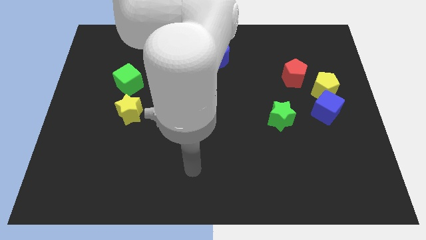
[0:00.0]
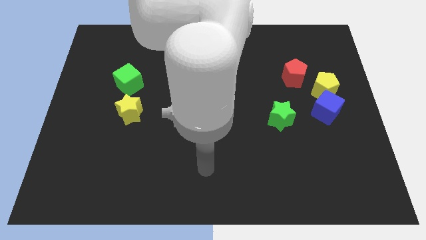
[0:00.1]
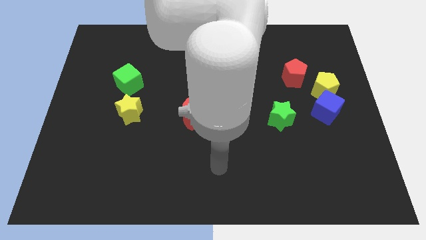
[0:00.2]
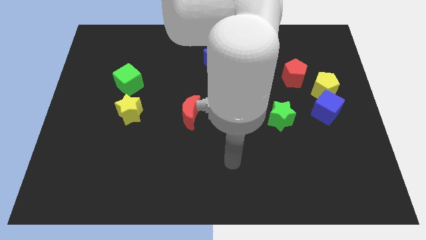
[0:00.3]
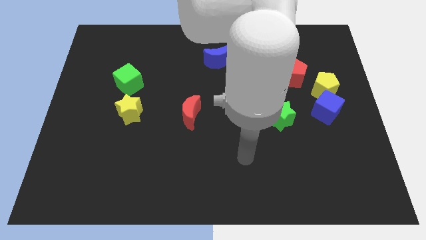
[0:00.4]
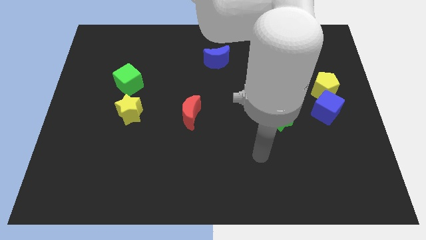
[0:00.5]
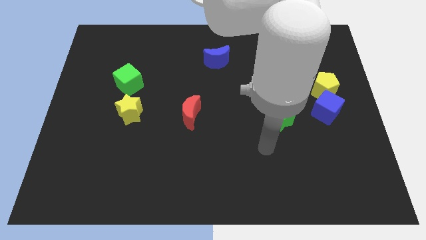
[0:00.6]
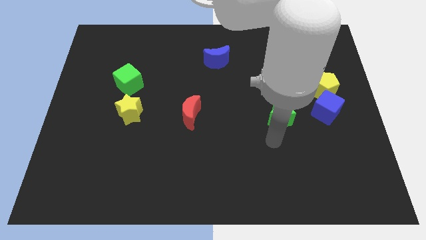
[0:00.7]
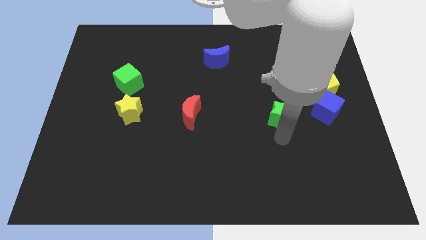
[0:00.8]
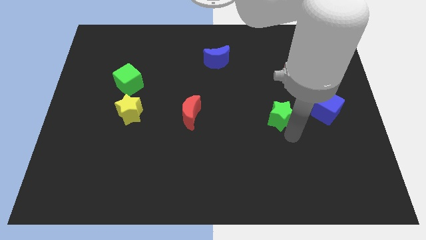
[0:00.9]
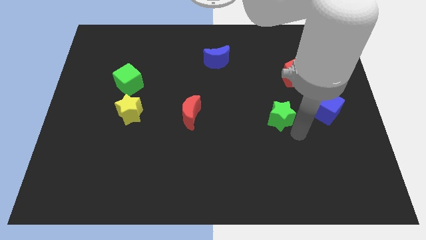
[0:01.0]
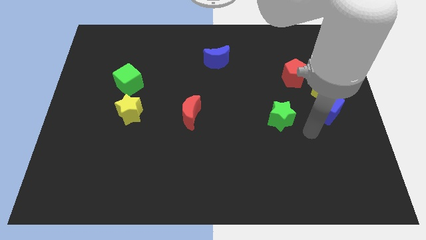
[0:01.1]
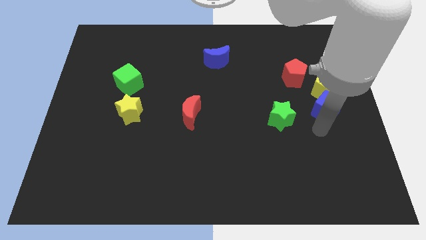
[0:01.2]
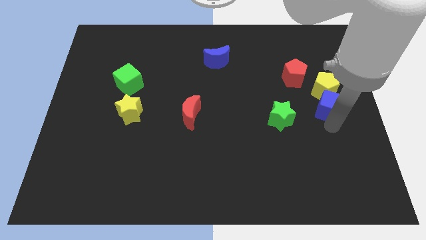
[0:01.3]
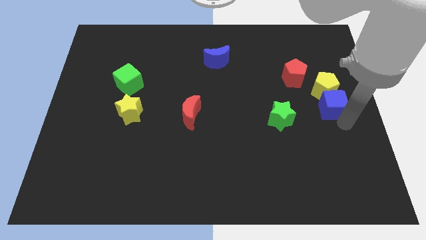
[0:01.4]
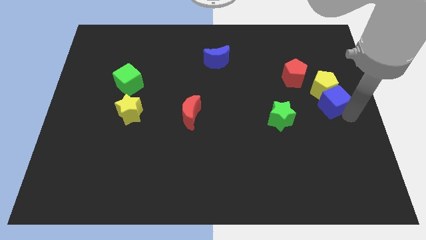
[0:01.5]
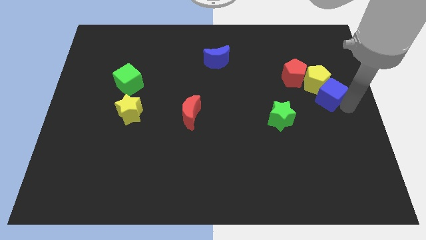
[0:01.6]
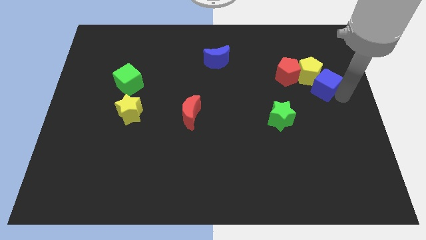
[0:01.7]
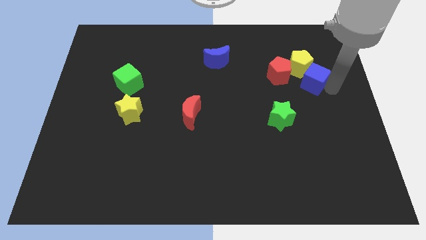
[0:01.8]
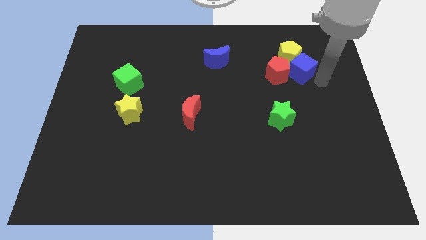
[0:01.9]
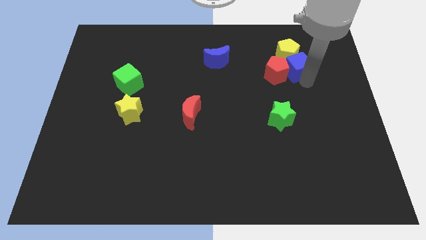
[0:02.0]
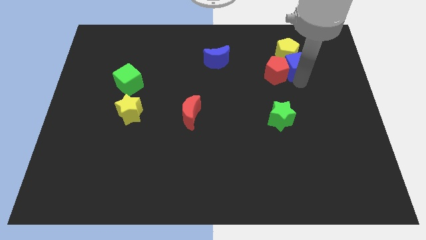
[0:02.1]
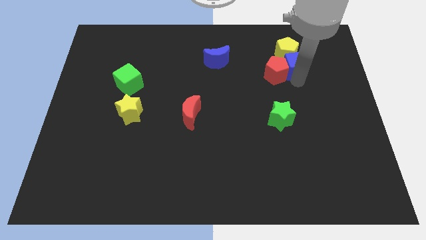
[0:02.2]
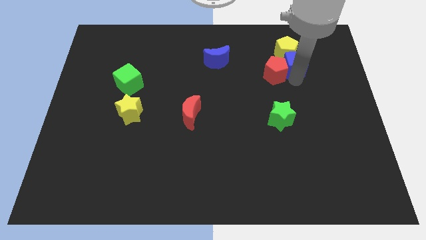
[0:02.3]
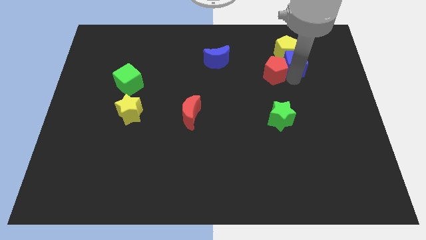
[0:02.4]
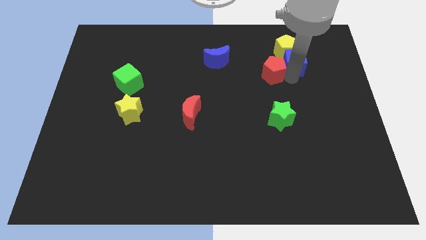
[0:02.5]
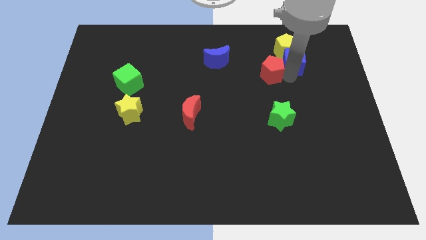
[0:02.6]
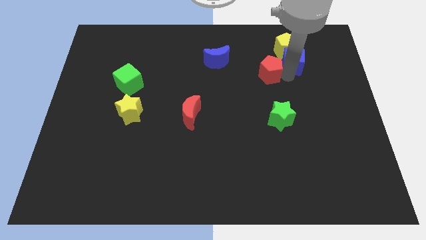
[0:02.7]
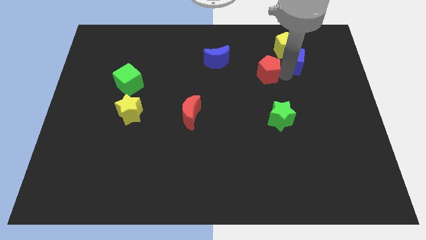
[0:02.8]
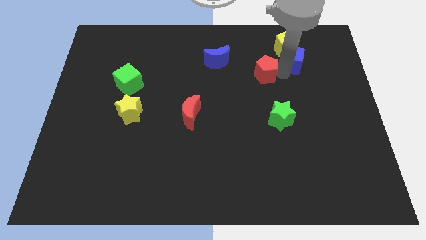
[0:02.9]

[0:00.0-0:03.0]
slightly push the red pentagon to the left

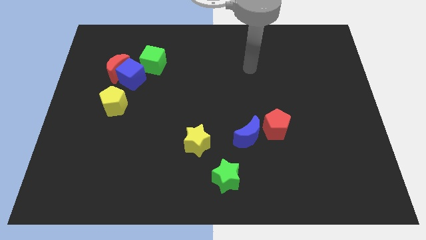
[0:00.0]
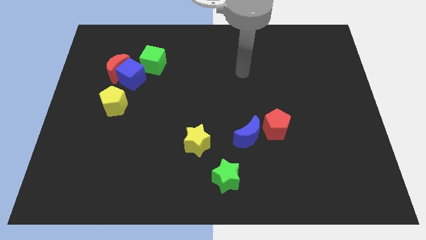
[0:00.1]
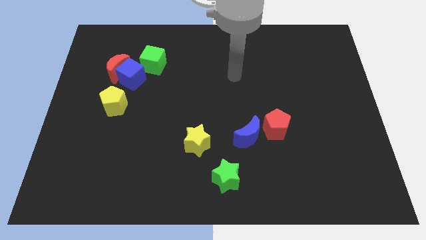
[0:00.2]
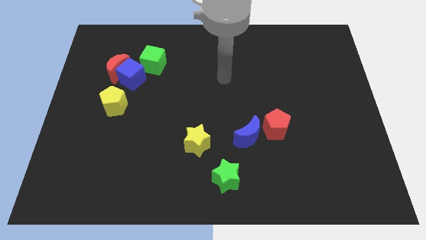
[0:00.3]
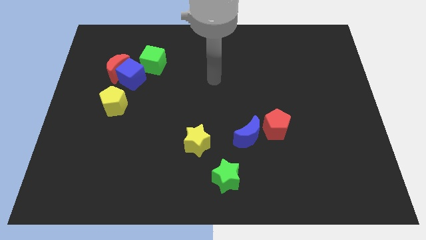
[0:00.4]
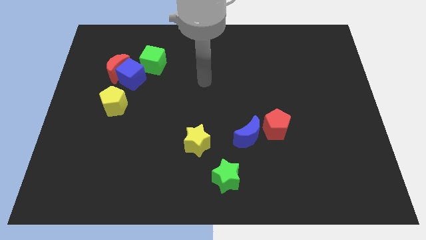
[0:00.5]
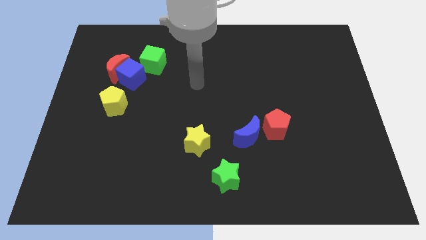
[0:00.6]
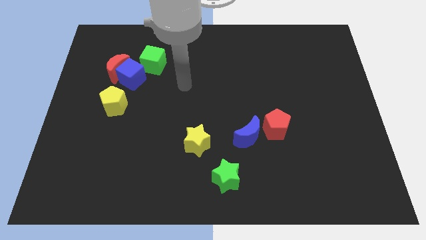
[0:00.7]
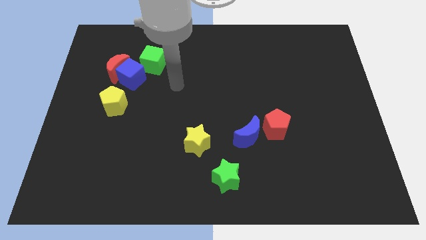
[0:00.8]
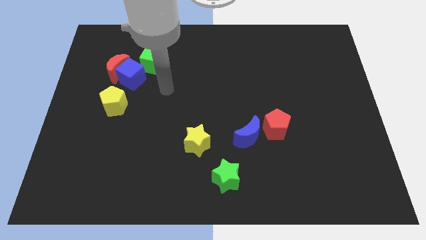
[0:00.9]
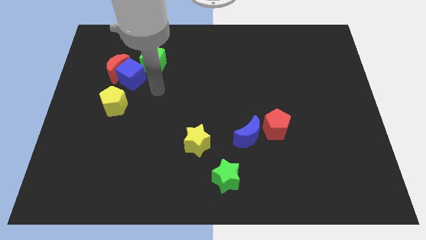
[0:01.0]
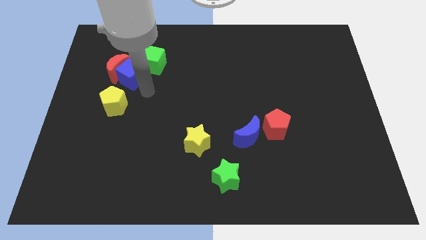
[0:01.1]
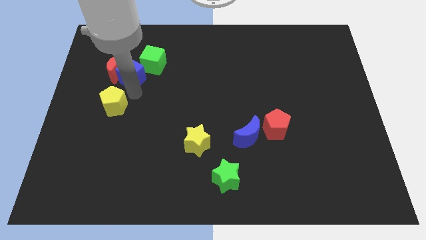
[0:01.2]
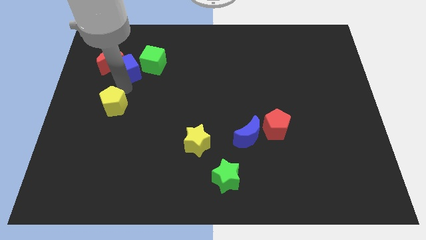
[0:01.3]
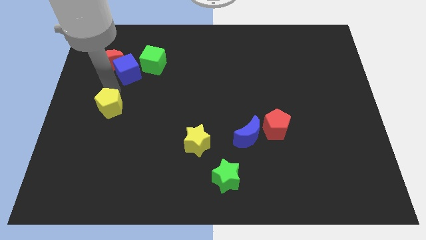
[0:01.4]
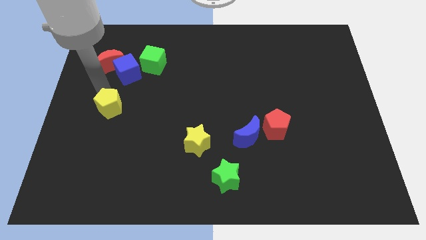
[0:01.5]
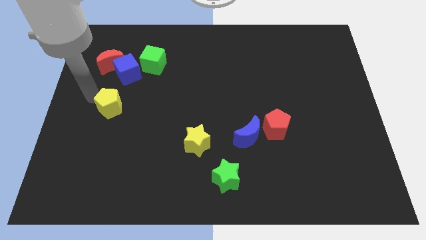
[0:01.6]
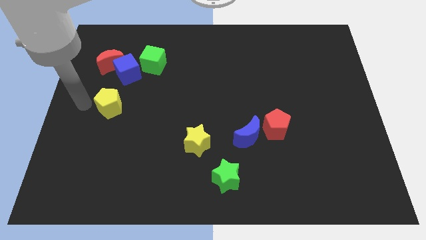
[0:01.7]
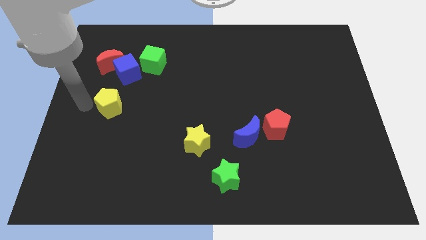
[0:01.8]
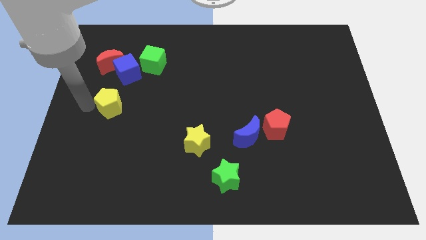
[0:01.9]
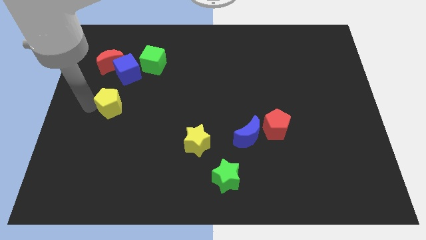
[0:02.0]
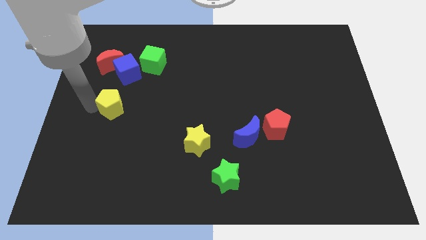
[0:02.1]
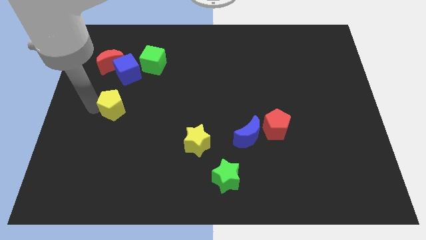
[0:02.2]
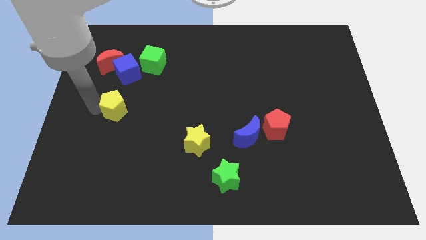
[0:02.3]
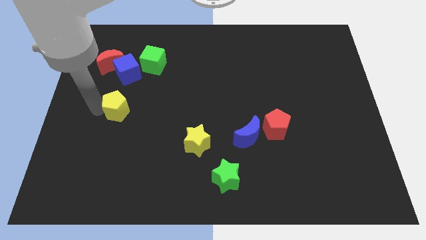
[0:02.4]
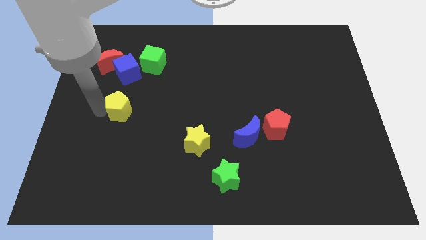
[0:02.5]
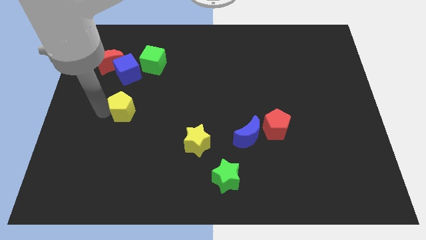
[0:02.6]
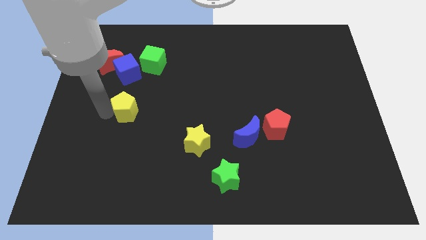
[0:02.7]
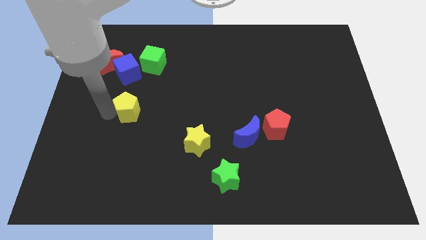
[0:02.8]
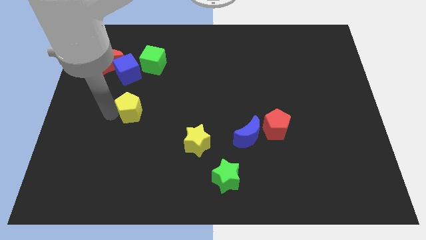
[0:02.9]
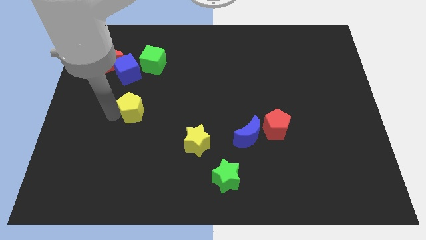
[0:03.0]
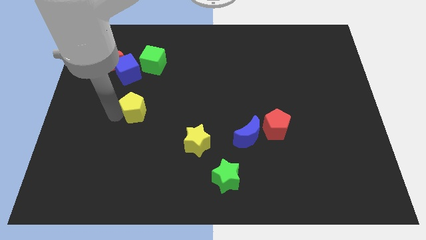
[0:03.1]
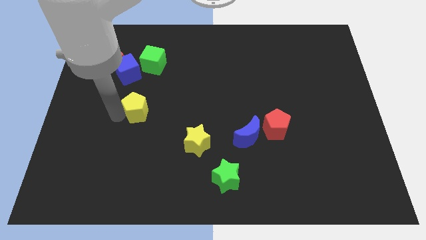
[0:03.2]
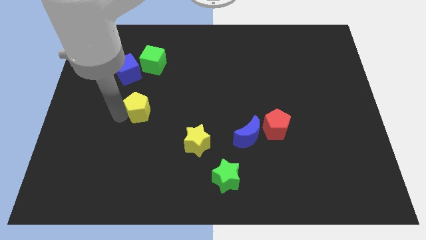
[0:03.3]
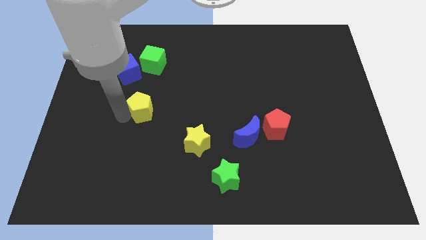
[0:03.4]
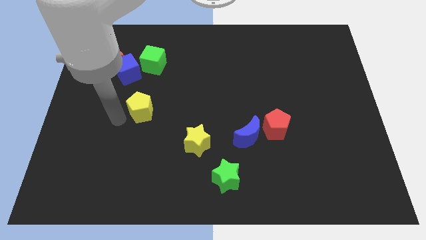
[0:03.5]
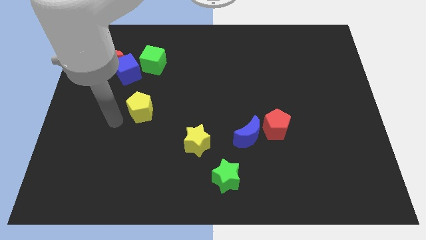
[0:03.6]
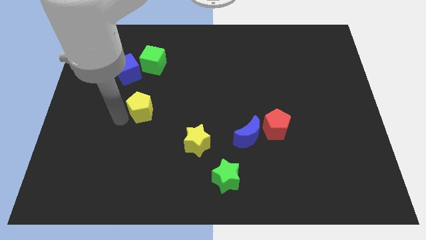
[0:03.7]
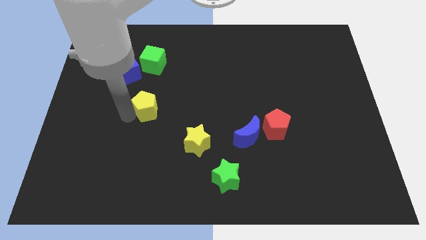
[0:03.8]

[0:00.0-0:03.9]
slightly move the yellow pentagon right

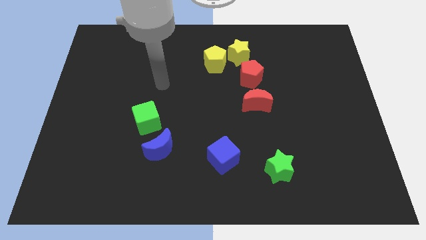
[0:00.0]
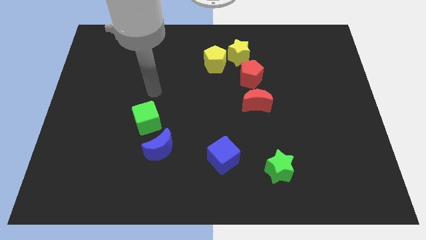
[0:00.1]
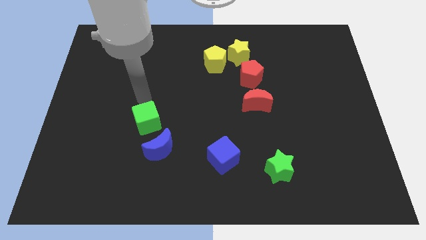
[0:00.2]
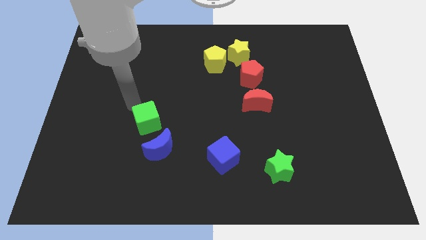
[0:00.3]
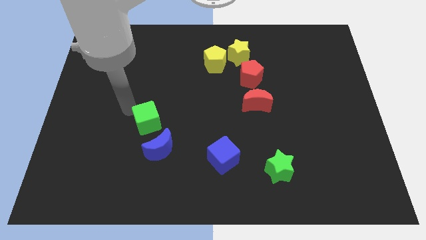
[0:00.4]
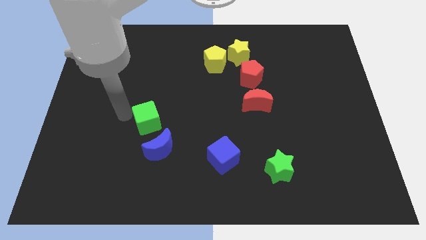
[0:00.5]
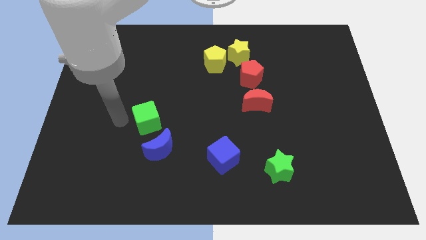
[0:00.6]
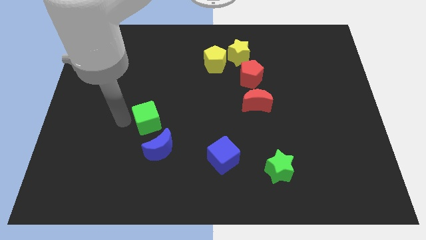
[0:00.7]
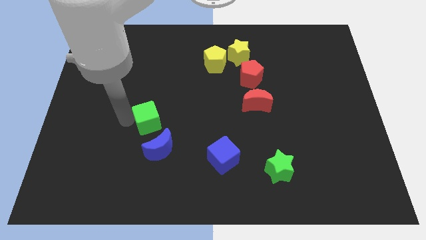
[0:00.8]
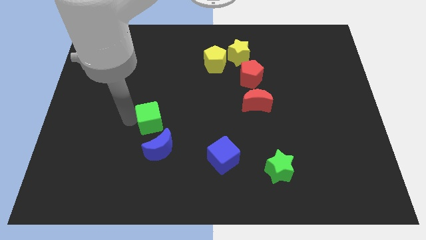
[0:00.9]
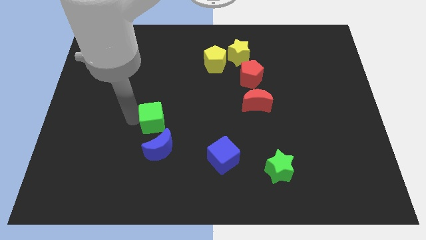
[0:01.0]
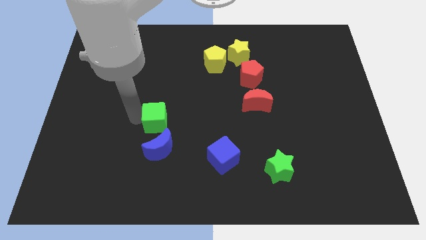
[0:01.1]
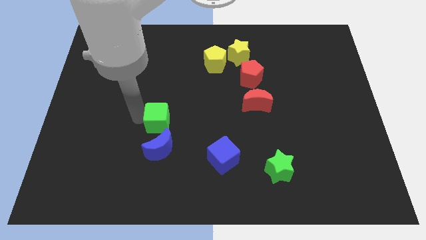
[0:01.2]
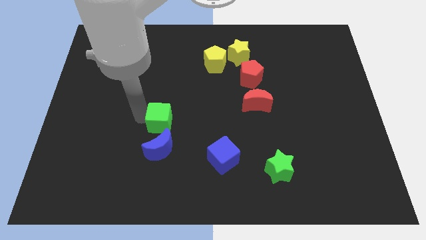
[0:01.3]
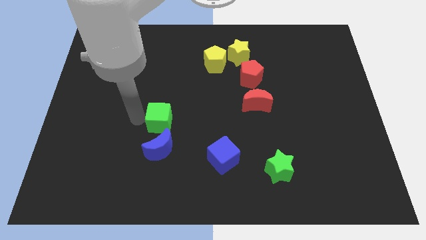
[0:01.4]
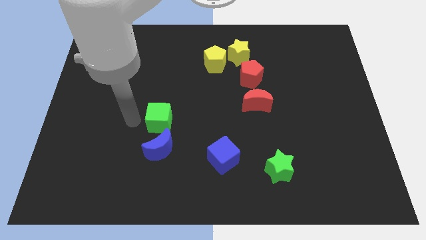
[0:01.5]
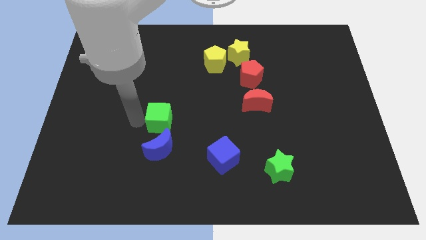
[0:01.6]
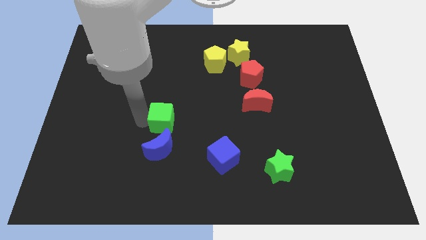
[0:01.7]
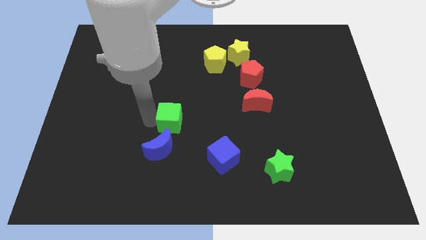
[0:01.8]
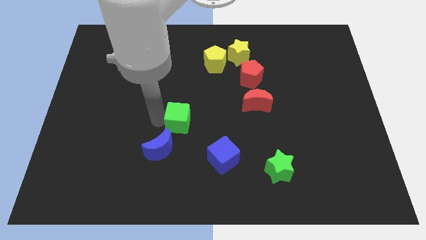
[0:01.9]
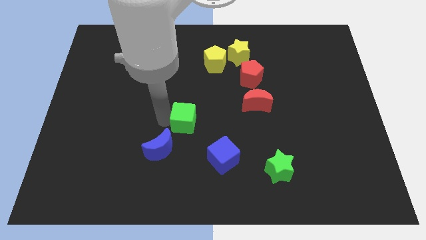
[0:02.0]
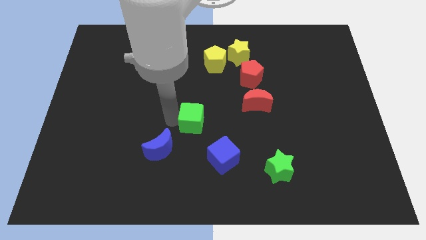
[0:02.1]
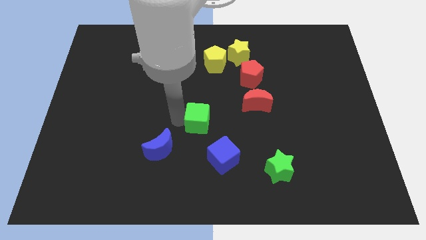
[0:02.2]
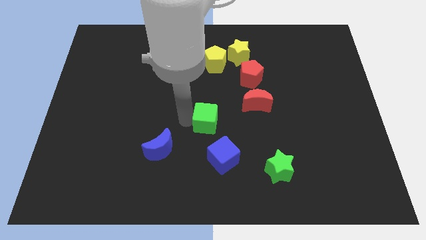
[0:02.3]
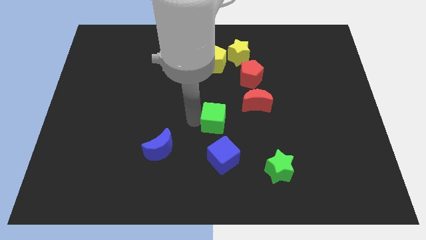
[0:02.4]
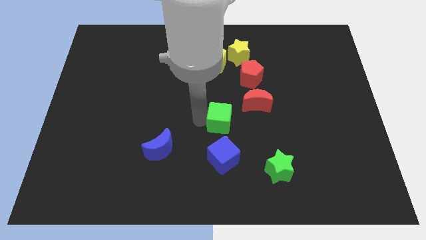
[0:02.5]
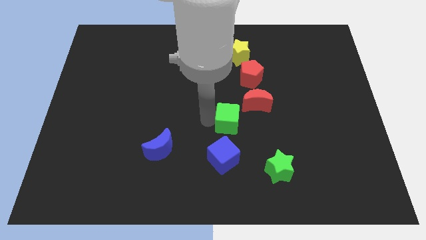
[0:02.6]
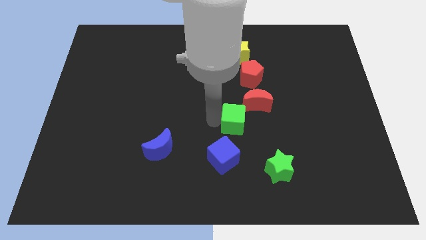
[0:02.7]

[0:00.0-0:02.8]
slide the green cube to the right
